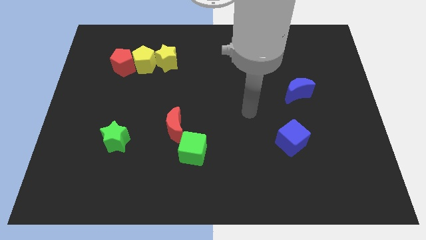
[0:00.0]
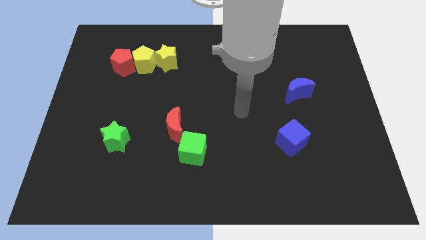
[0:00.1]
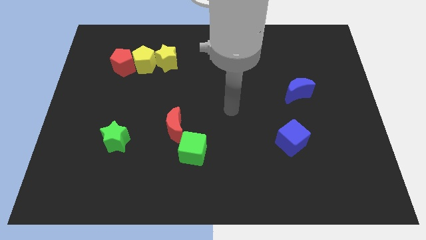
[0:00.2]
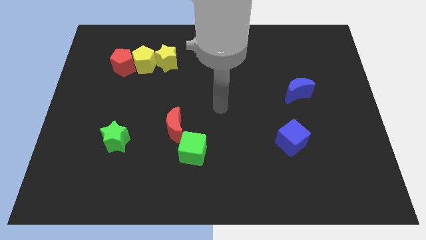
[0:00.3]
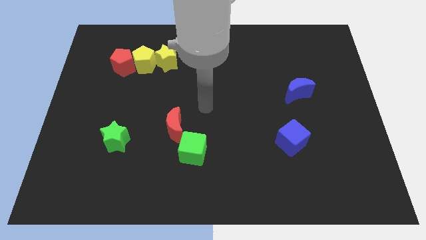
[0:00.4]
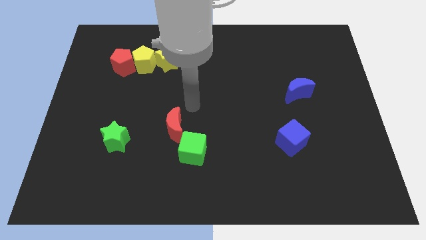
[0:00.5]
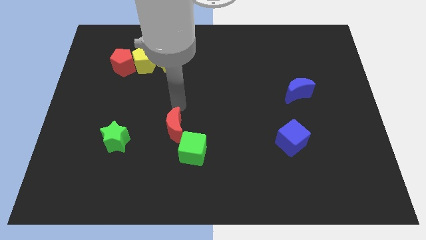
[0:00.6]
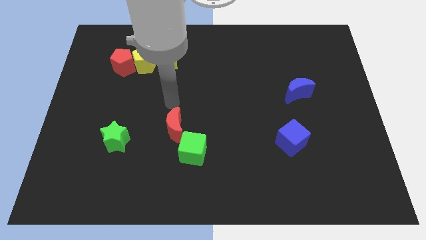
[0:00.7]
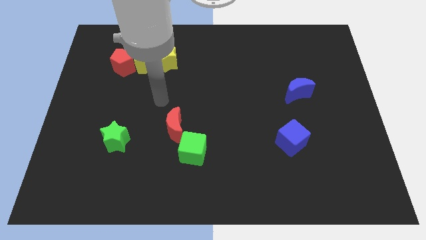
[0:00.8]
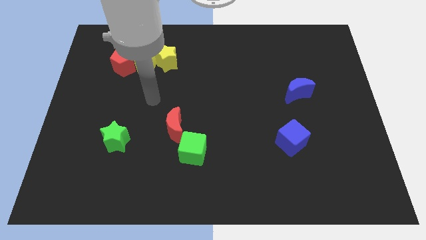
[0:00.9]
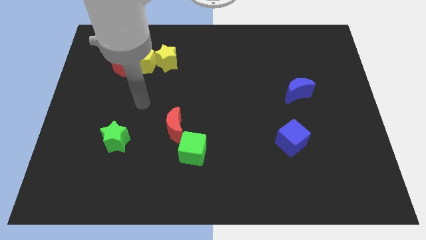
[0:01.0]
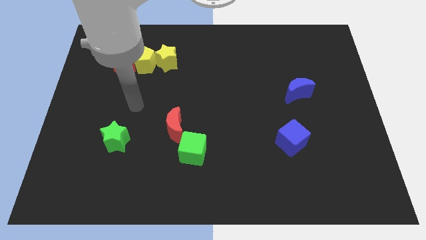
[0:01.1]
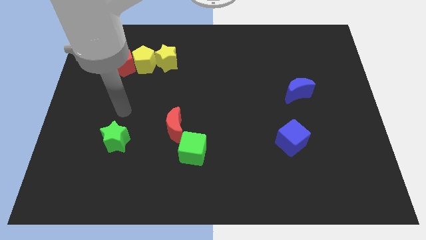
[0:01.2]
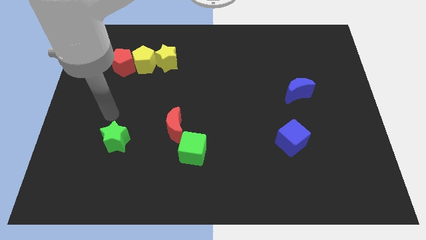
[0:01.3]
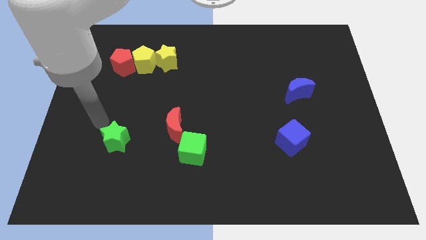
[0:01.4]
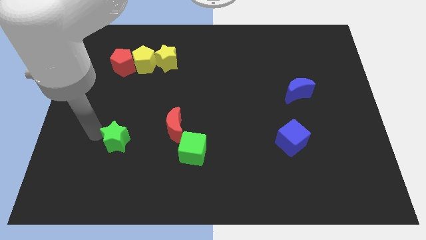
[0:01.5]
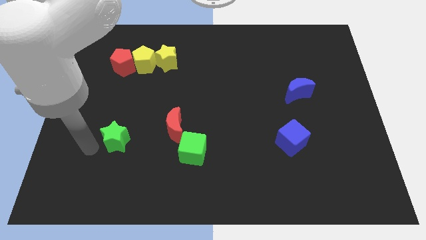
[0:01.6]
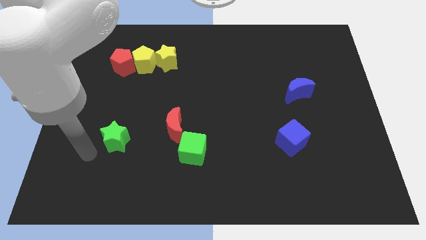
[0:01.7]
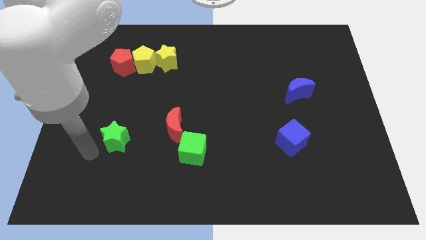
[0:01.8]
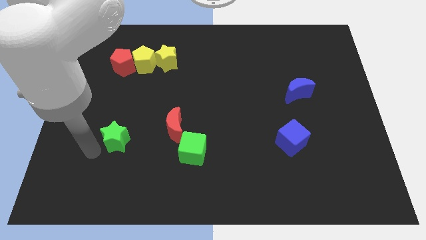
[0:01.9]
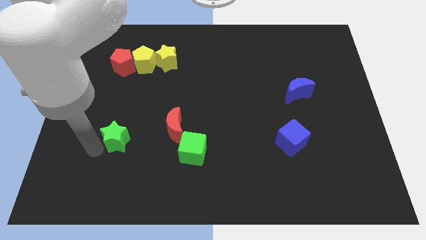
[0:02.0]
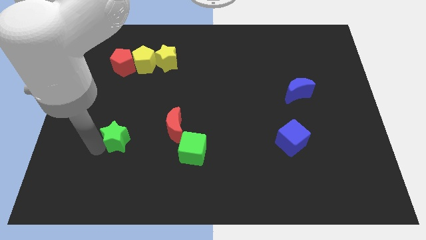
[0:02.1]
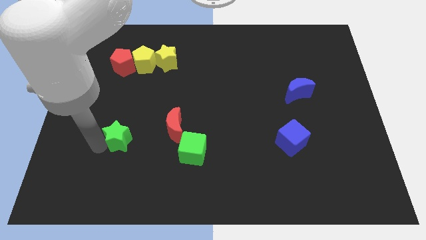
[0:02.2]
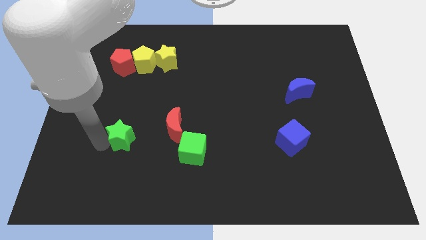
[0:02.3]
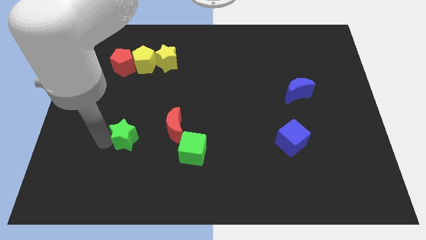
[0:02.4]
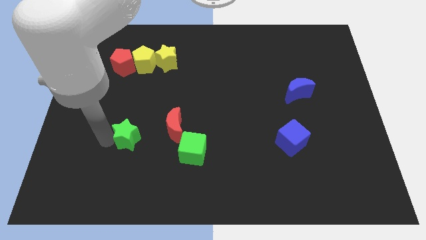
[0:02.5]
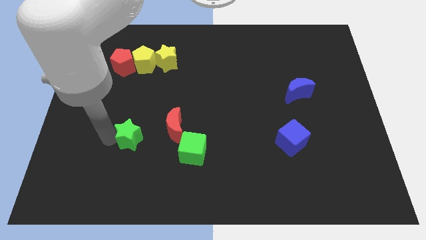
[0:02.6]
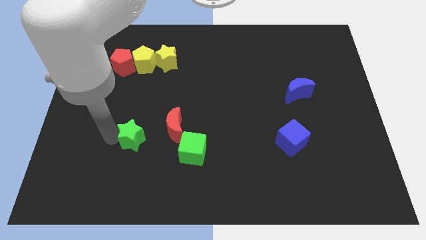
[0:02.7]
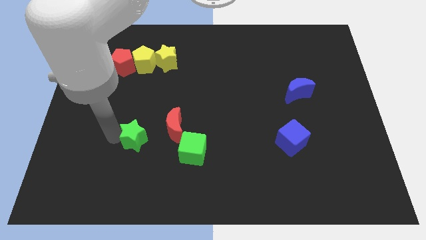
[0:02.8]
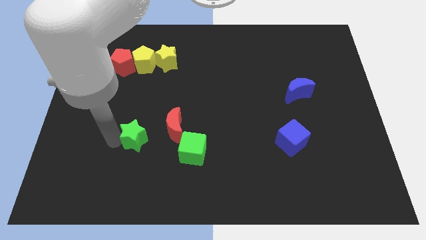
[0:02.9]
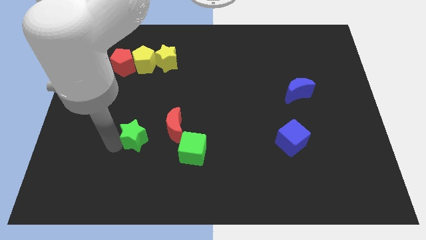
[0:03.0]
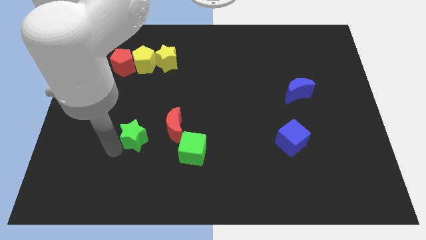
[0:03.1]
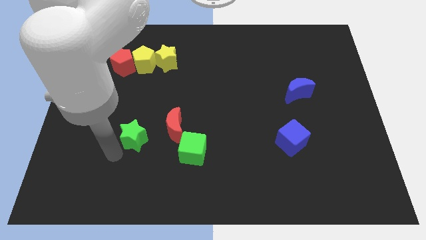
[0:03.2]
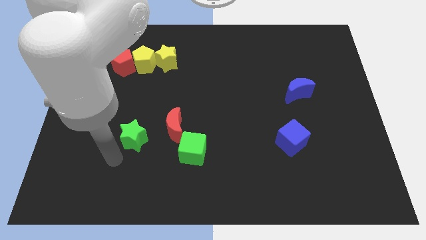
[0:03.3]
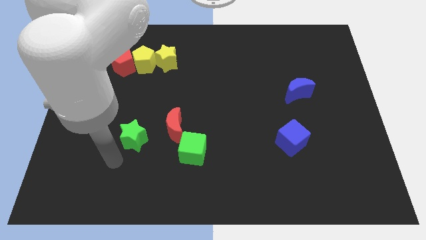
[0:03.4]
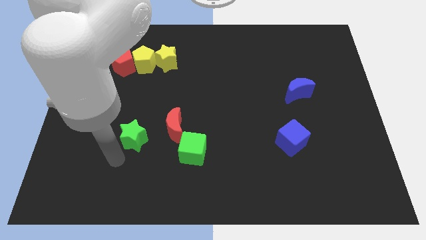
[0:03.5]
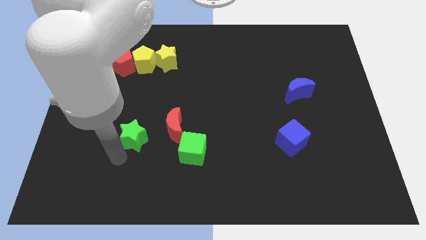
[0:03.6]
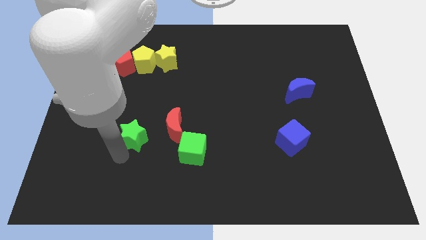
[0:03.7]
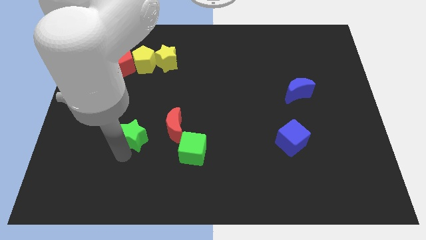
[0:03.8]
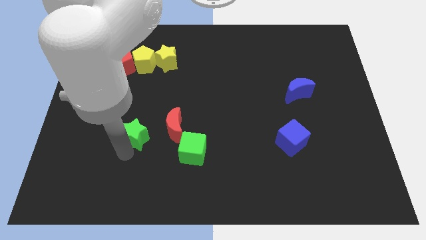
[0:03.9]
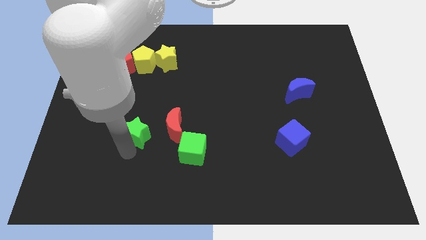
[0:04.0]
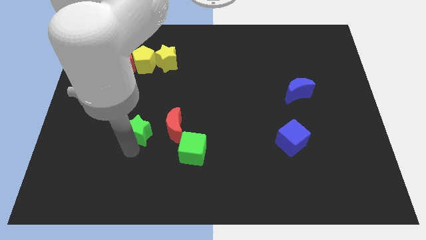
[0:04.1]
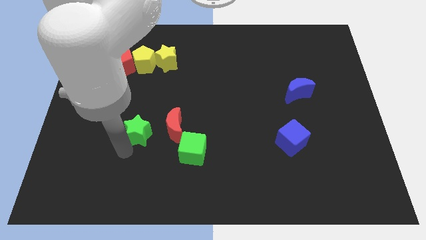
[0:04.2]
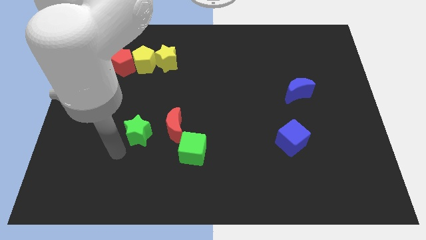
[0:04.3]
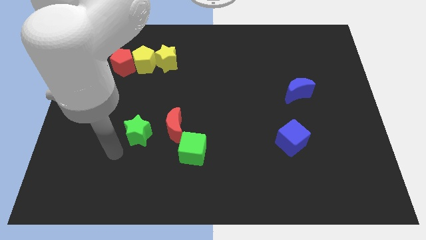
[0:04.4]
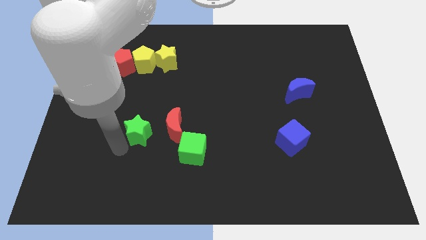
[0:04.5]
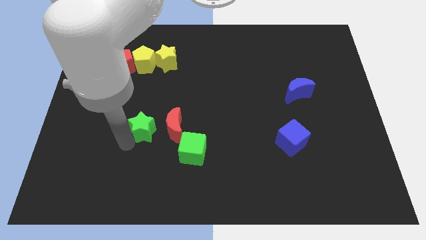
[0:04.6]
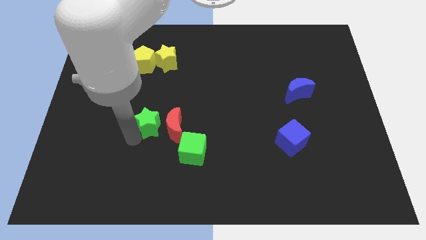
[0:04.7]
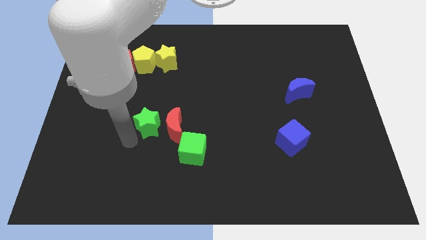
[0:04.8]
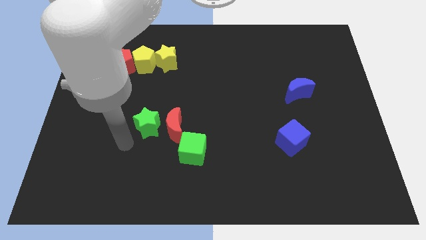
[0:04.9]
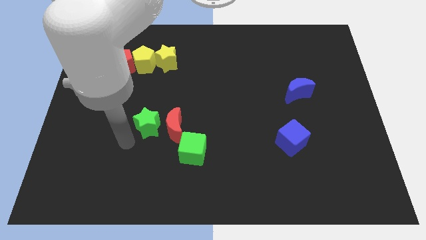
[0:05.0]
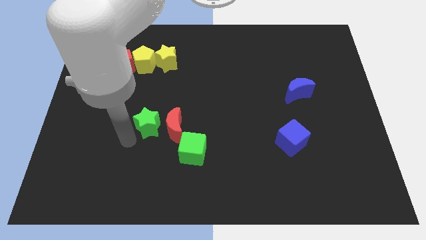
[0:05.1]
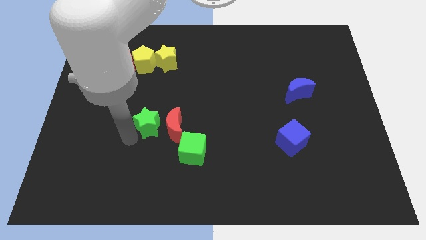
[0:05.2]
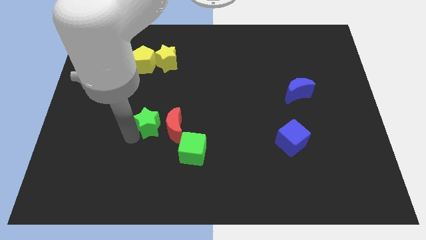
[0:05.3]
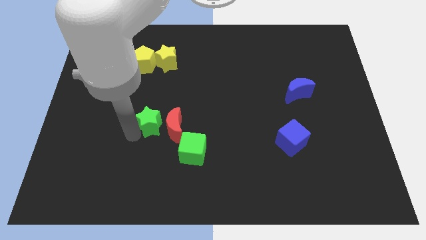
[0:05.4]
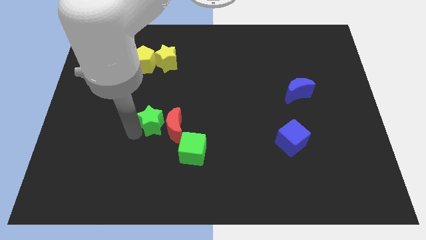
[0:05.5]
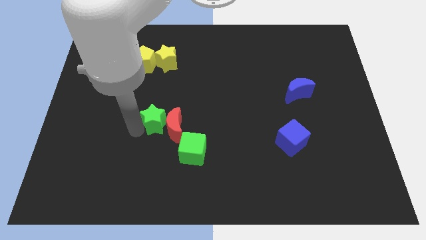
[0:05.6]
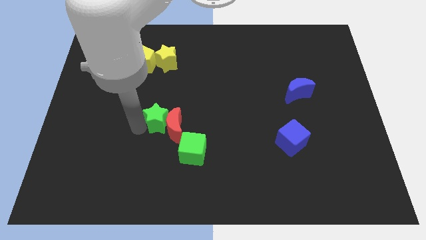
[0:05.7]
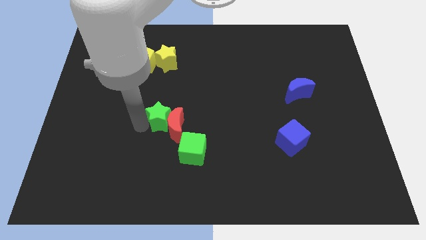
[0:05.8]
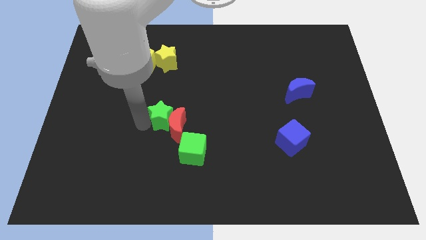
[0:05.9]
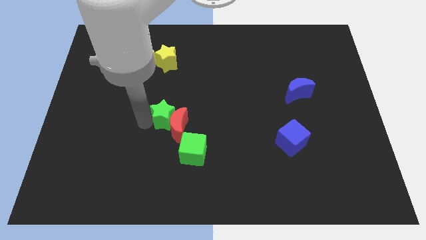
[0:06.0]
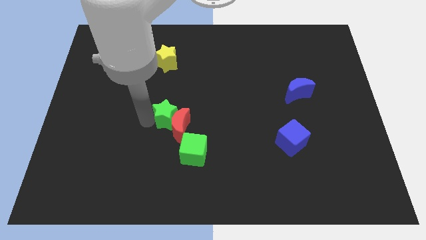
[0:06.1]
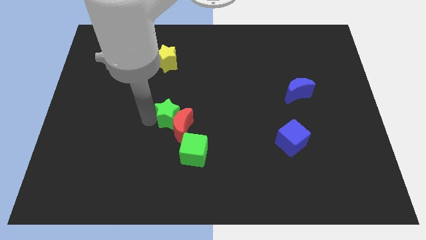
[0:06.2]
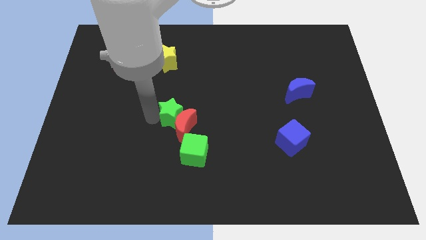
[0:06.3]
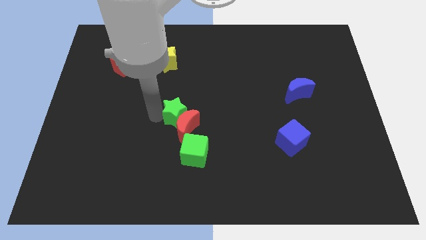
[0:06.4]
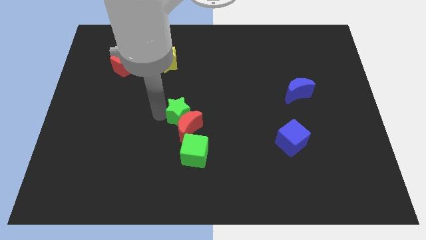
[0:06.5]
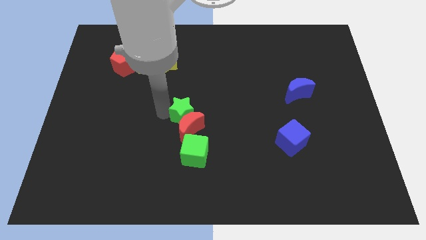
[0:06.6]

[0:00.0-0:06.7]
put the green star to the top right of the red moon

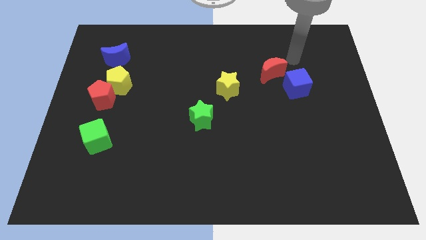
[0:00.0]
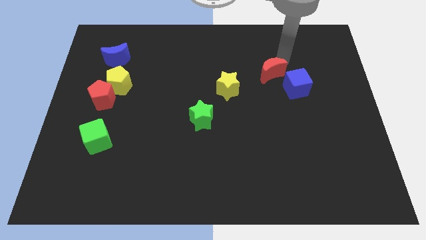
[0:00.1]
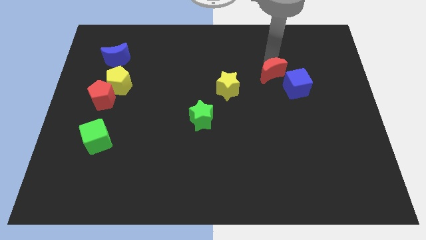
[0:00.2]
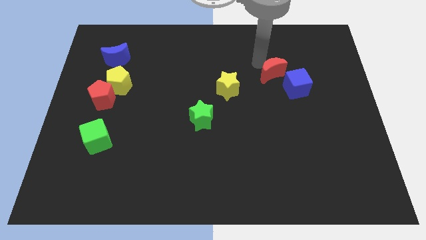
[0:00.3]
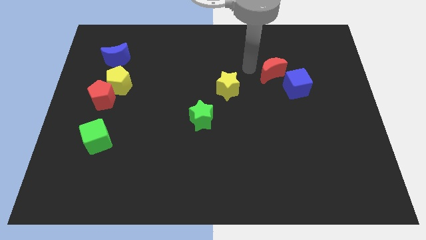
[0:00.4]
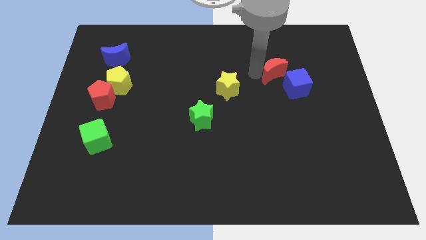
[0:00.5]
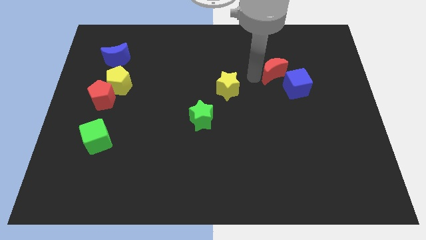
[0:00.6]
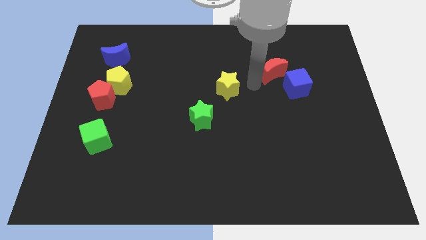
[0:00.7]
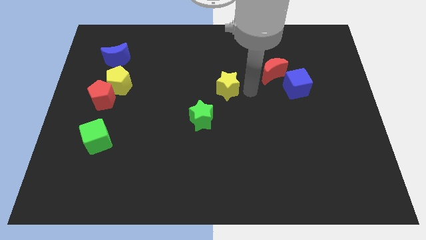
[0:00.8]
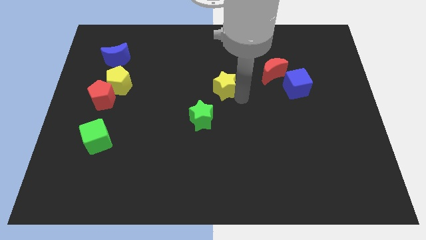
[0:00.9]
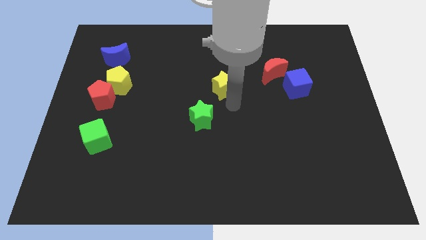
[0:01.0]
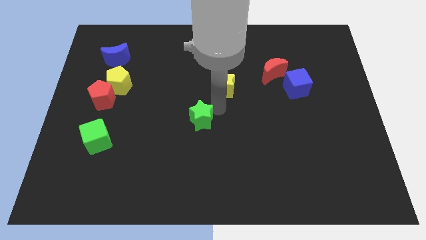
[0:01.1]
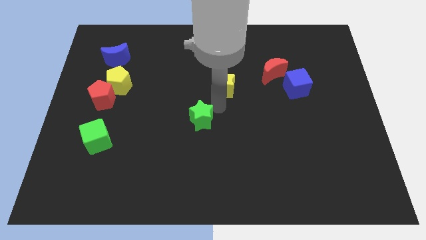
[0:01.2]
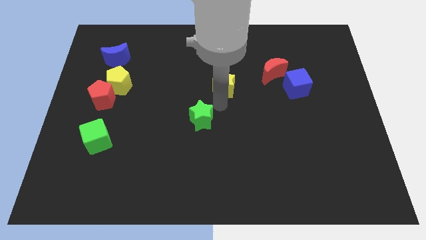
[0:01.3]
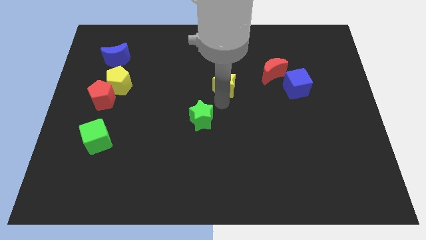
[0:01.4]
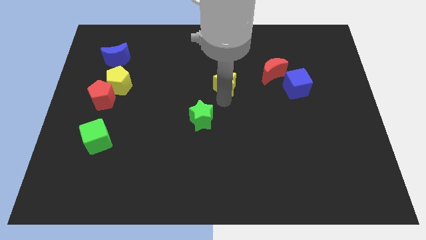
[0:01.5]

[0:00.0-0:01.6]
push the yellow star to the left of the red moon
